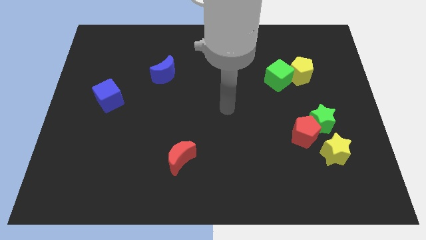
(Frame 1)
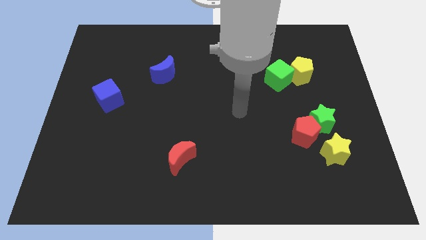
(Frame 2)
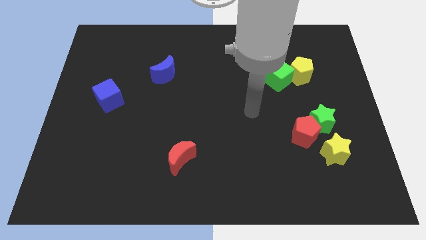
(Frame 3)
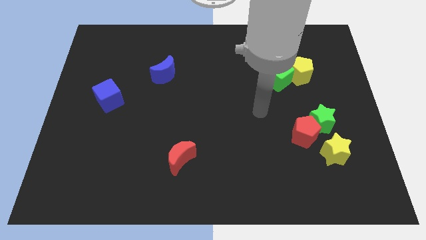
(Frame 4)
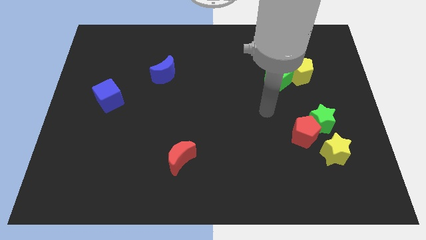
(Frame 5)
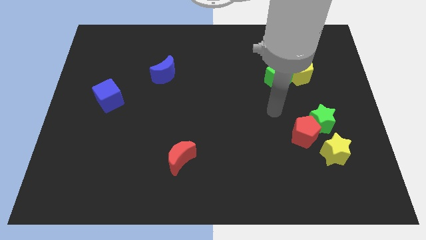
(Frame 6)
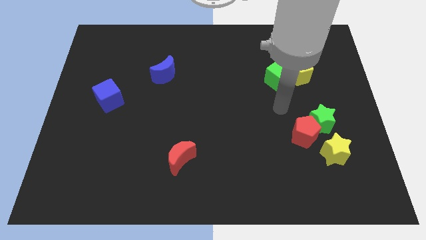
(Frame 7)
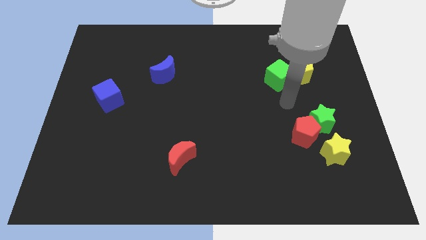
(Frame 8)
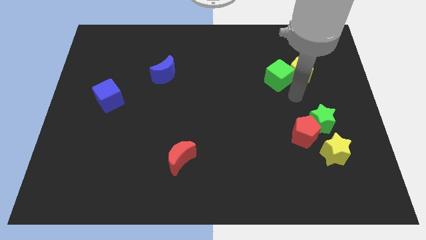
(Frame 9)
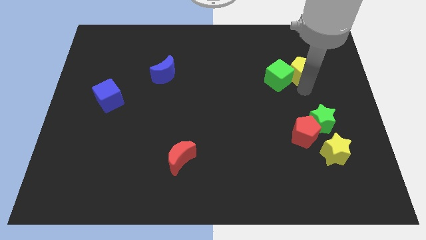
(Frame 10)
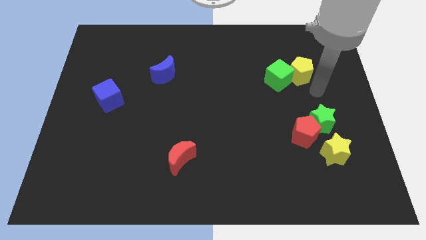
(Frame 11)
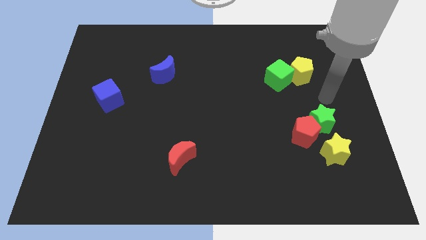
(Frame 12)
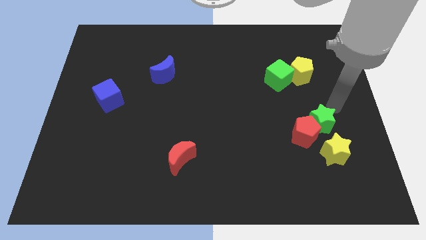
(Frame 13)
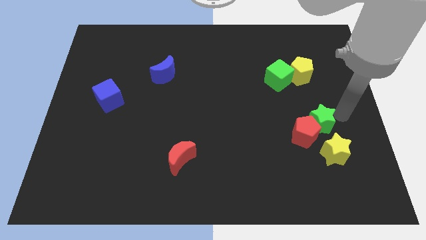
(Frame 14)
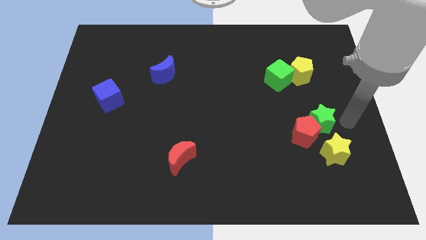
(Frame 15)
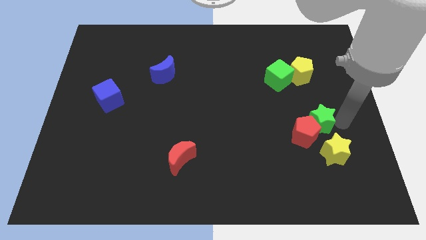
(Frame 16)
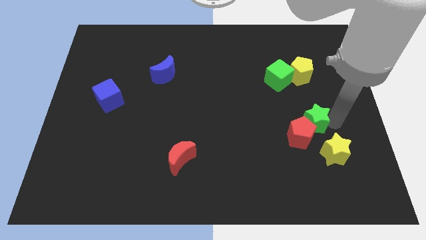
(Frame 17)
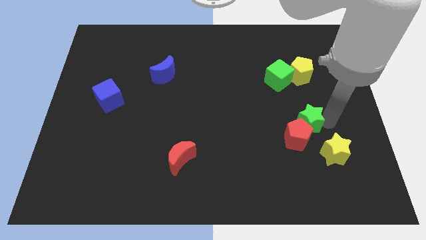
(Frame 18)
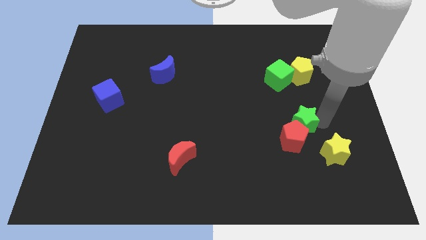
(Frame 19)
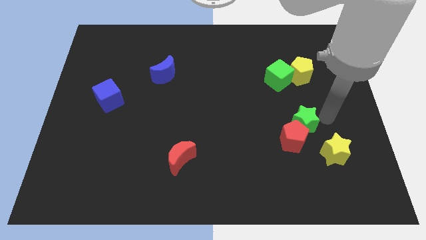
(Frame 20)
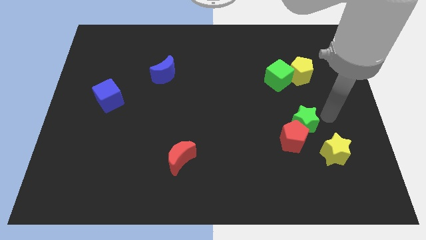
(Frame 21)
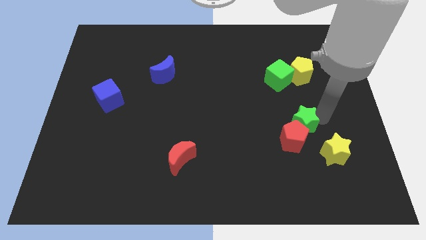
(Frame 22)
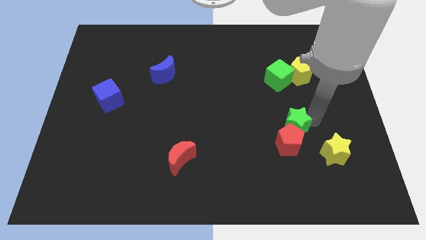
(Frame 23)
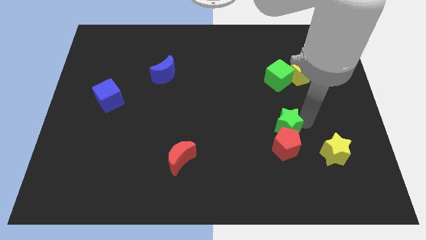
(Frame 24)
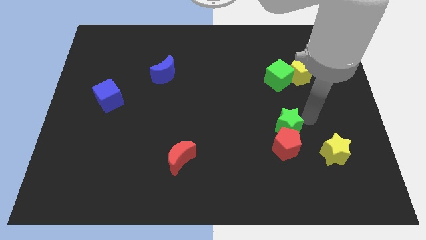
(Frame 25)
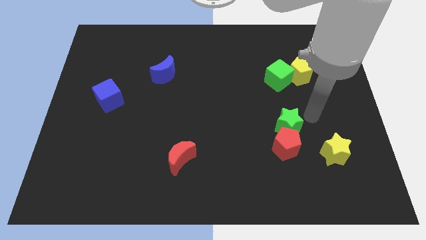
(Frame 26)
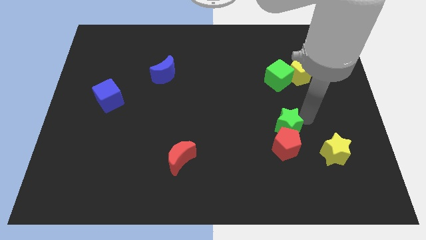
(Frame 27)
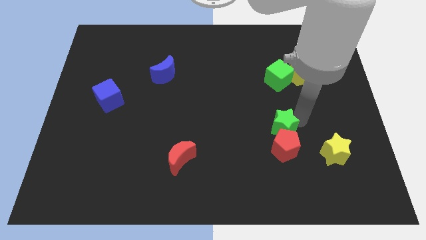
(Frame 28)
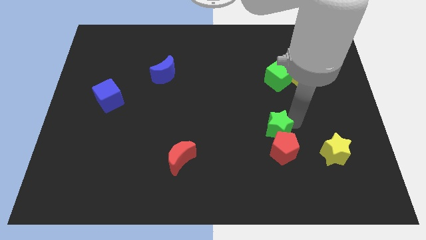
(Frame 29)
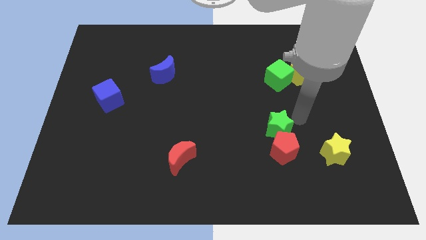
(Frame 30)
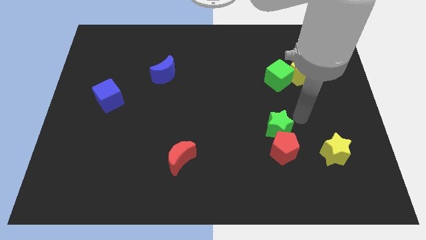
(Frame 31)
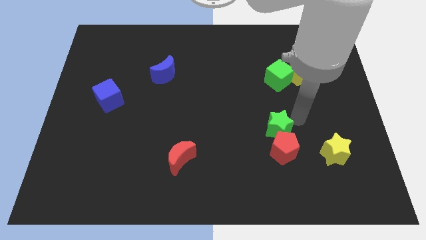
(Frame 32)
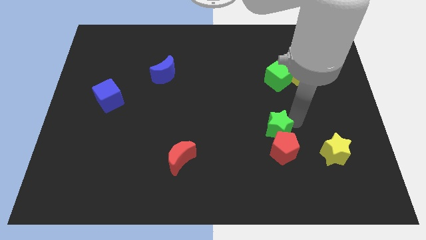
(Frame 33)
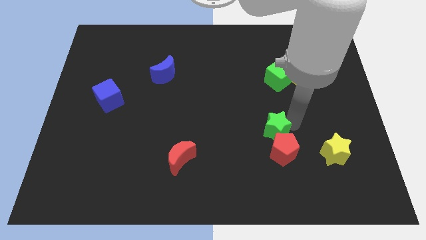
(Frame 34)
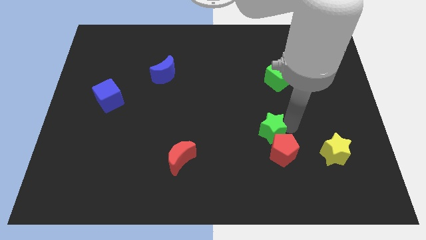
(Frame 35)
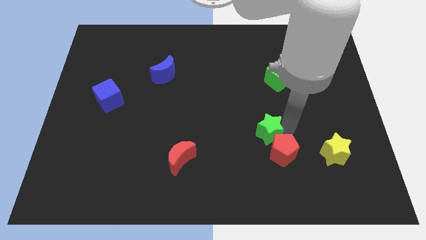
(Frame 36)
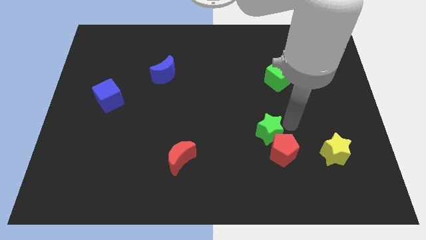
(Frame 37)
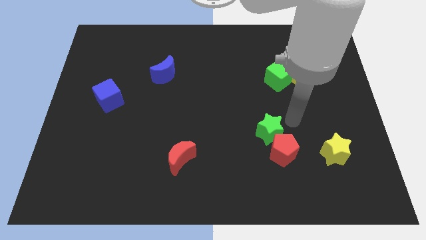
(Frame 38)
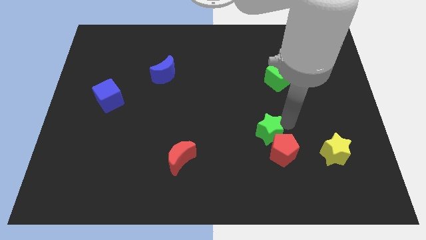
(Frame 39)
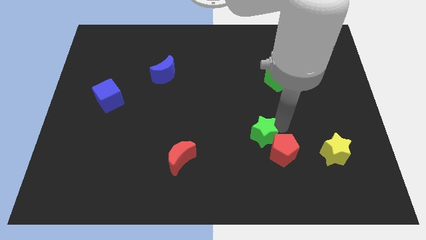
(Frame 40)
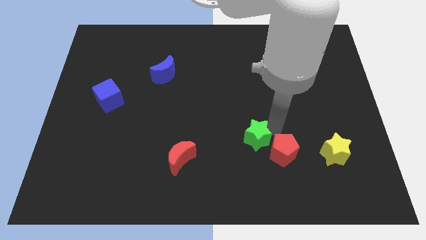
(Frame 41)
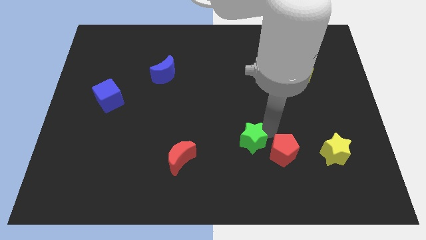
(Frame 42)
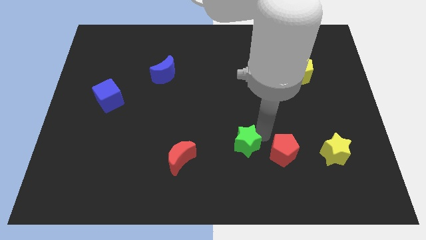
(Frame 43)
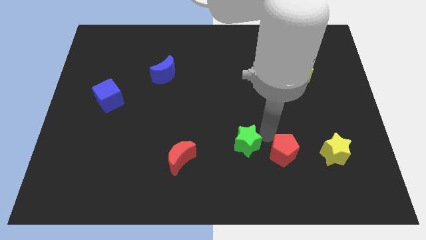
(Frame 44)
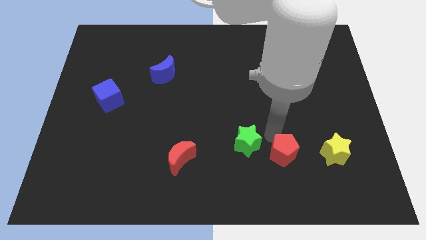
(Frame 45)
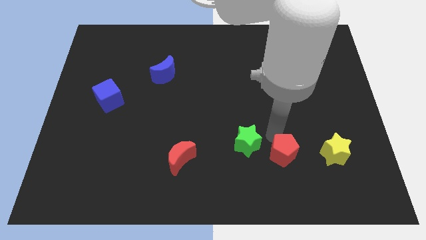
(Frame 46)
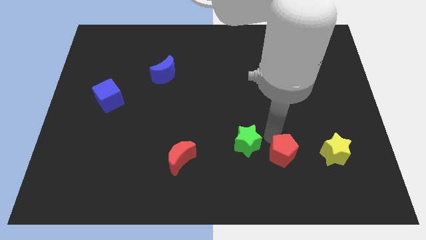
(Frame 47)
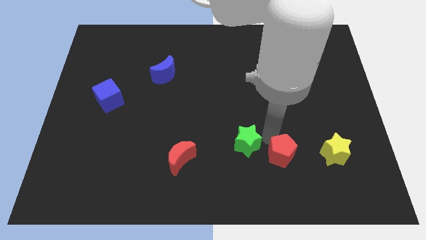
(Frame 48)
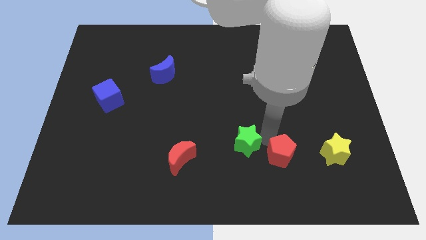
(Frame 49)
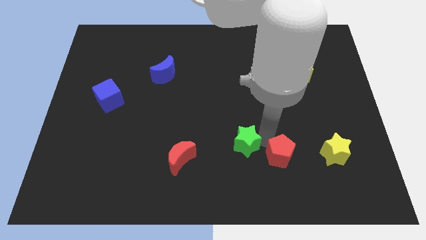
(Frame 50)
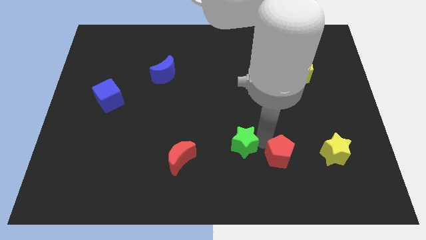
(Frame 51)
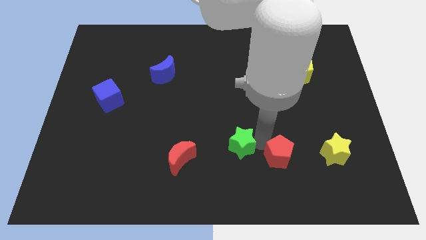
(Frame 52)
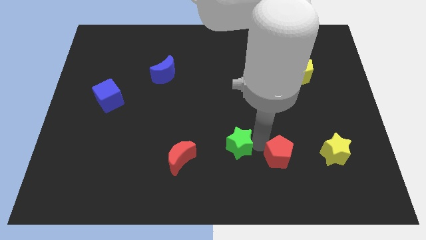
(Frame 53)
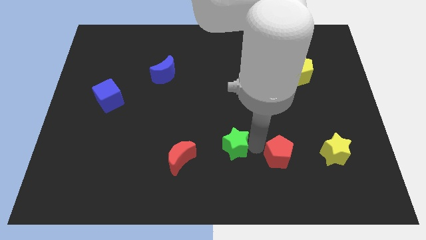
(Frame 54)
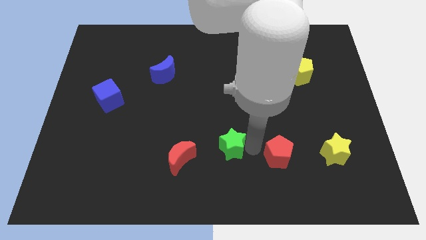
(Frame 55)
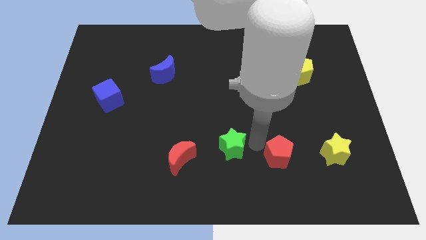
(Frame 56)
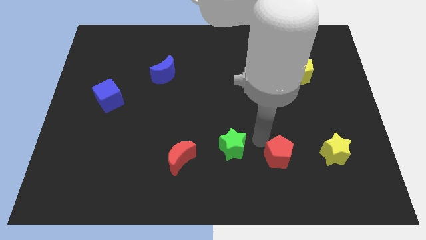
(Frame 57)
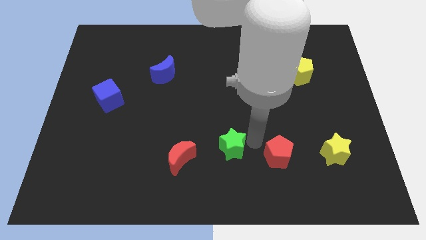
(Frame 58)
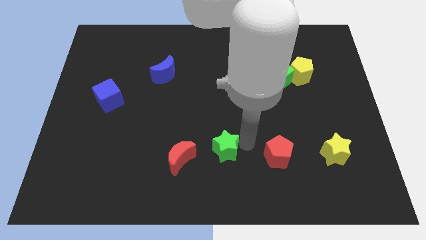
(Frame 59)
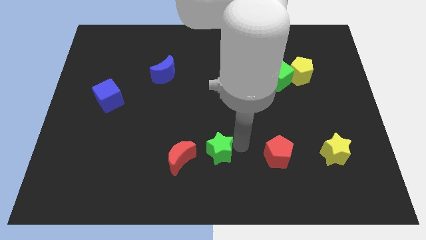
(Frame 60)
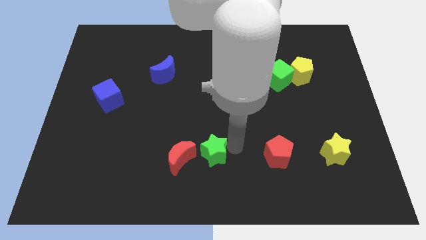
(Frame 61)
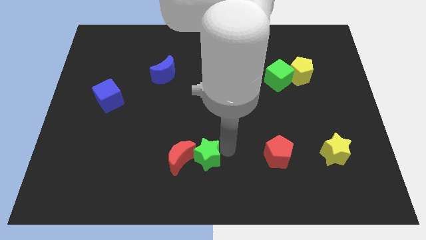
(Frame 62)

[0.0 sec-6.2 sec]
move the green star towards the red moon

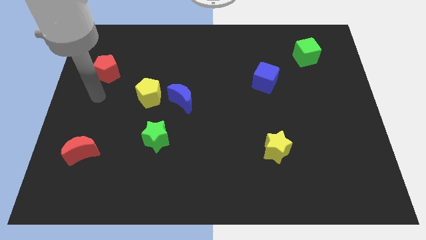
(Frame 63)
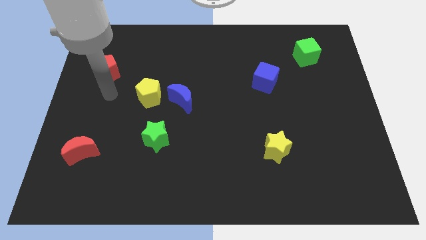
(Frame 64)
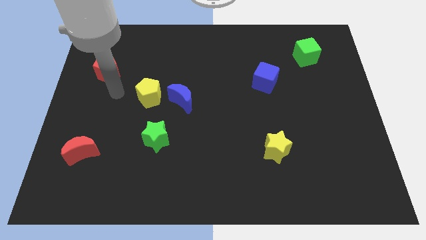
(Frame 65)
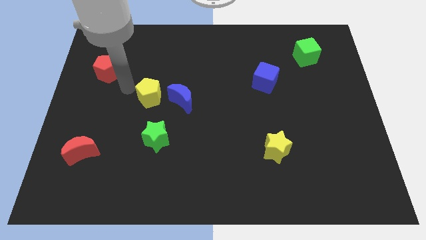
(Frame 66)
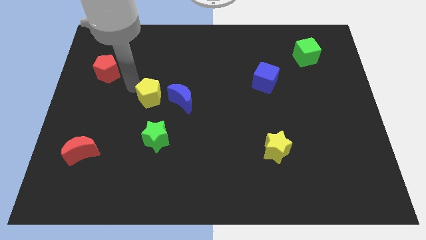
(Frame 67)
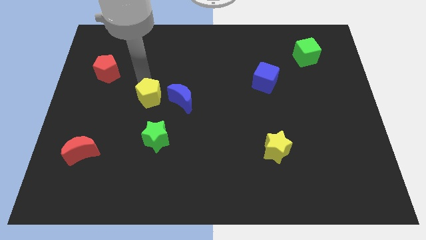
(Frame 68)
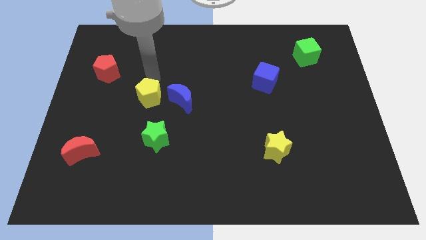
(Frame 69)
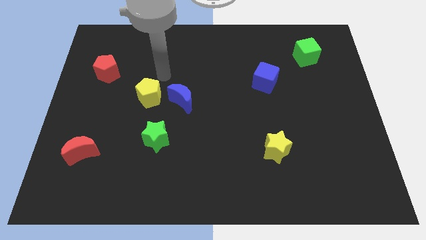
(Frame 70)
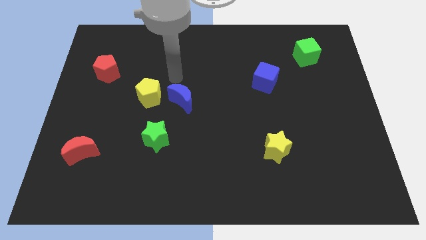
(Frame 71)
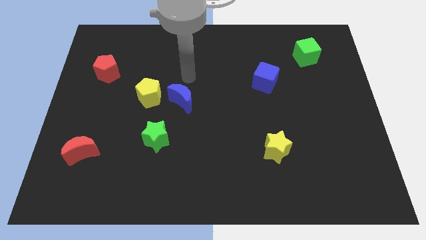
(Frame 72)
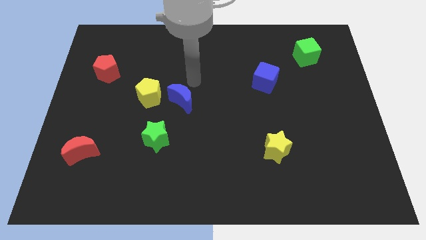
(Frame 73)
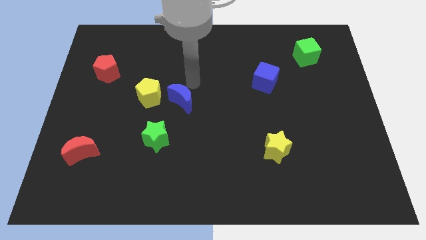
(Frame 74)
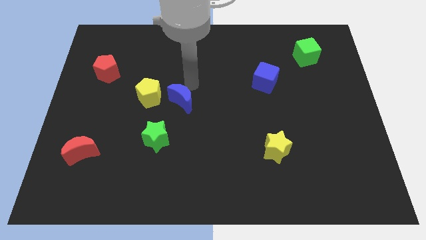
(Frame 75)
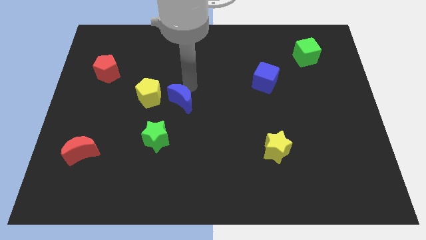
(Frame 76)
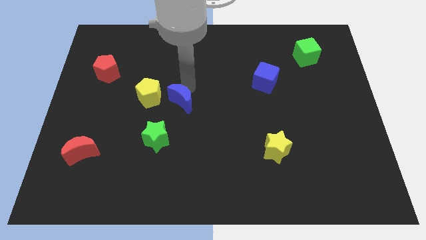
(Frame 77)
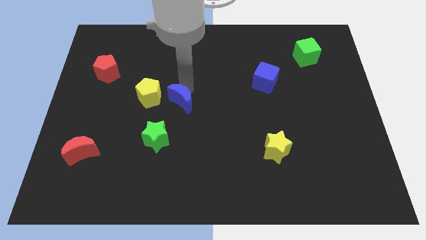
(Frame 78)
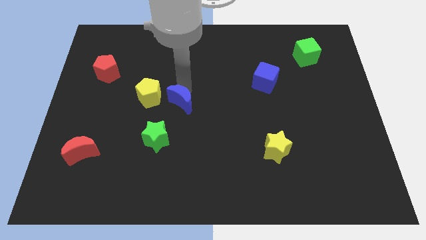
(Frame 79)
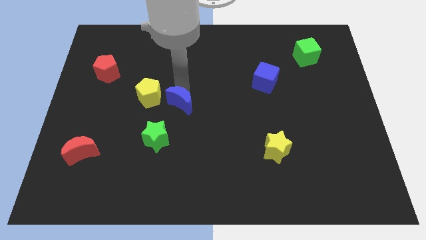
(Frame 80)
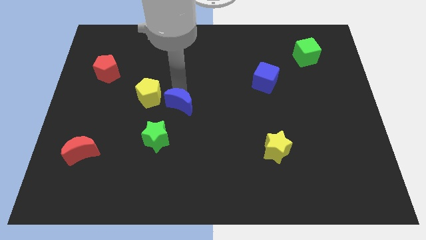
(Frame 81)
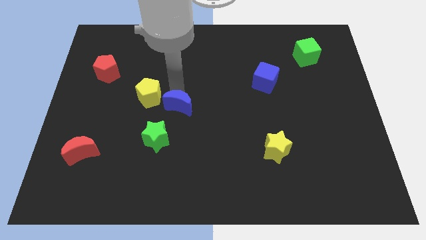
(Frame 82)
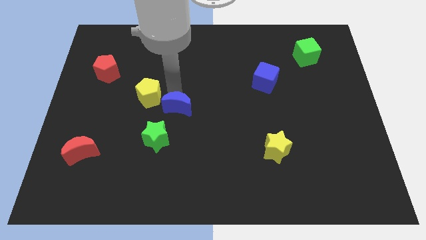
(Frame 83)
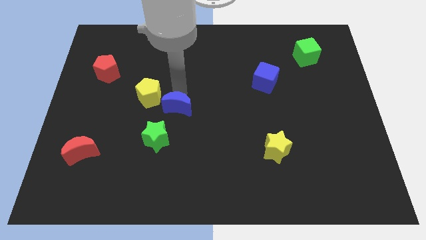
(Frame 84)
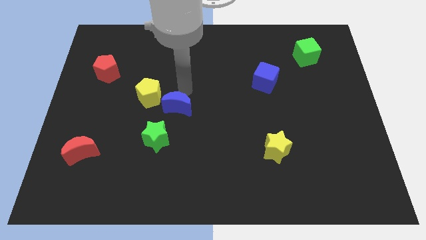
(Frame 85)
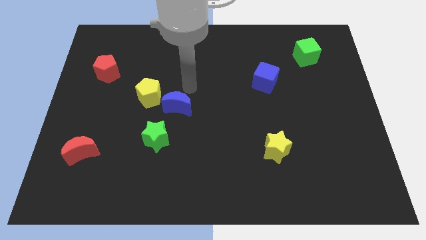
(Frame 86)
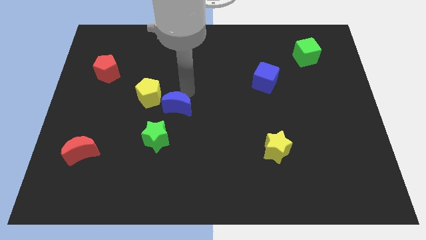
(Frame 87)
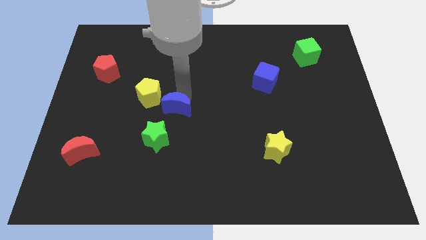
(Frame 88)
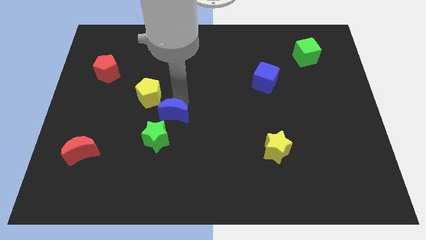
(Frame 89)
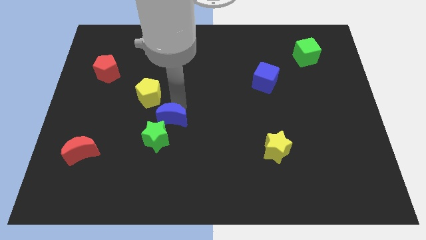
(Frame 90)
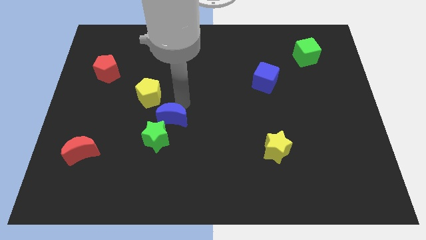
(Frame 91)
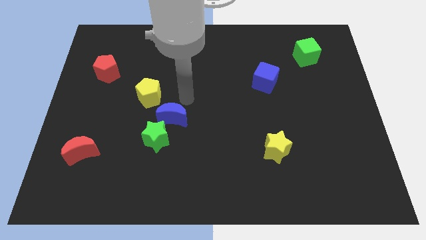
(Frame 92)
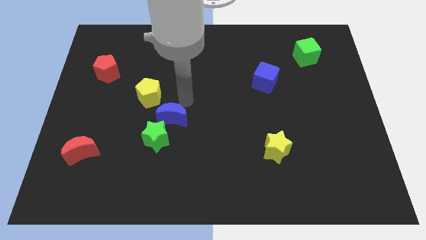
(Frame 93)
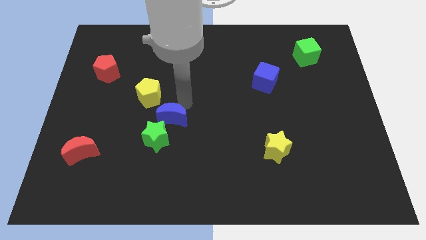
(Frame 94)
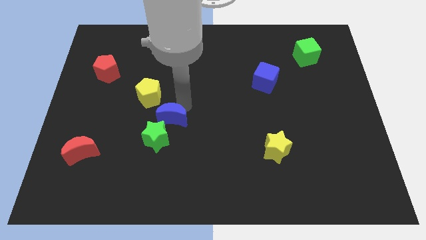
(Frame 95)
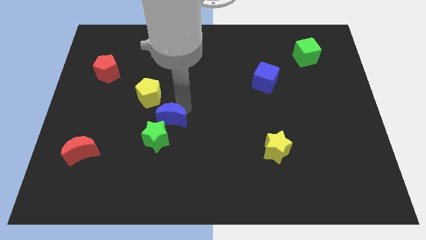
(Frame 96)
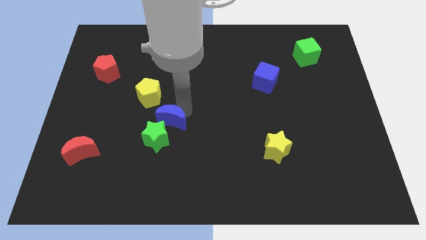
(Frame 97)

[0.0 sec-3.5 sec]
push the blue moon towards the green star
